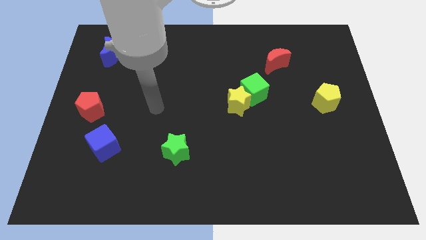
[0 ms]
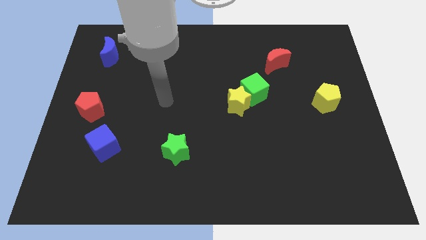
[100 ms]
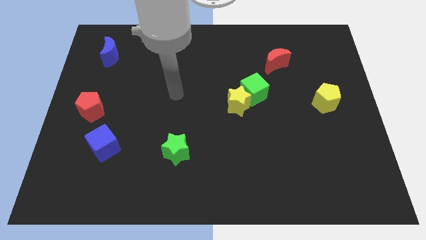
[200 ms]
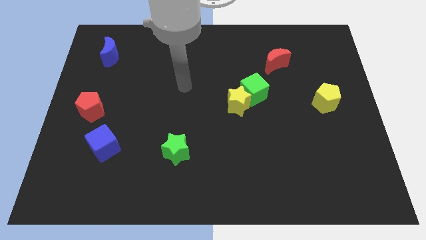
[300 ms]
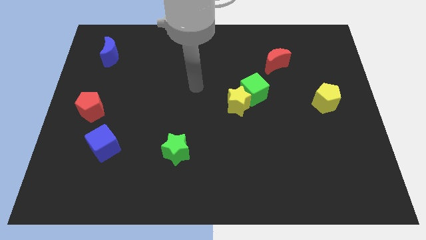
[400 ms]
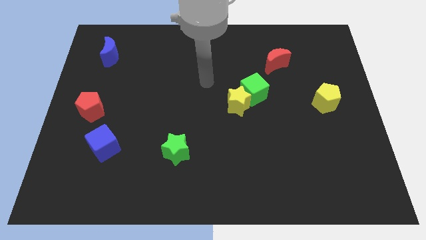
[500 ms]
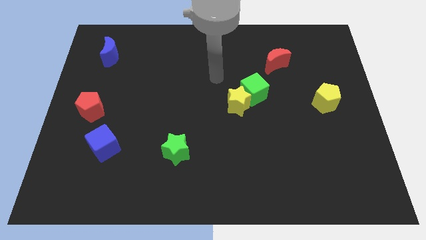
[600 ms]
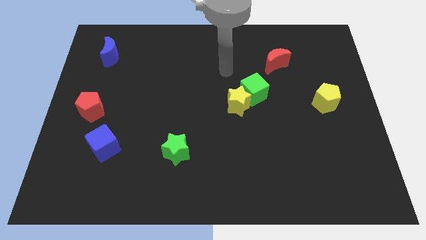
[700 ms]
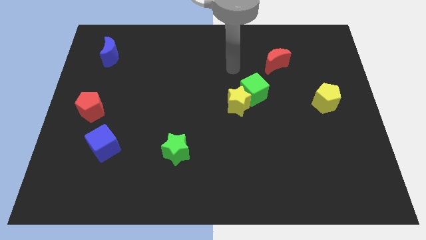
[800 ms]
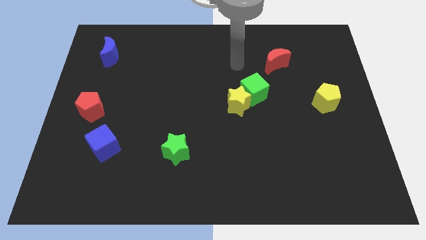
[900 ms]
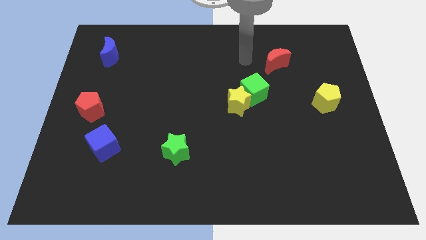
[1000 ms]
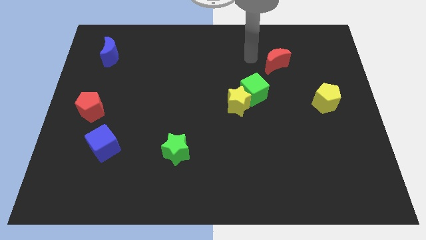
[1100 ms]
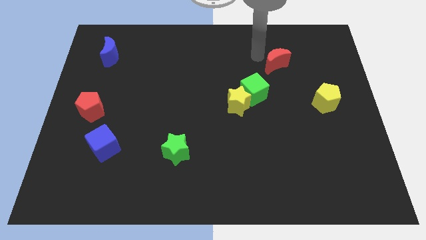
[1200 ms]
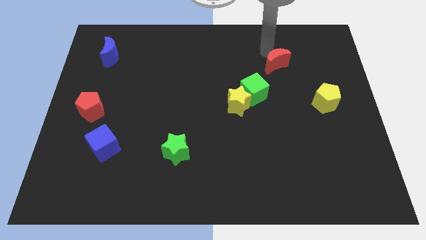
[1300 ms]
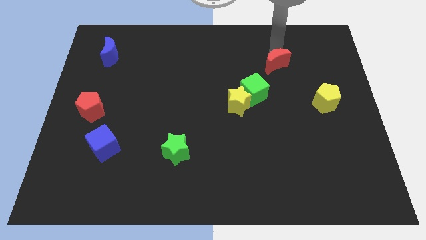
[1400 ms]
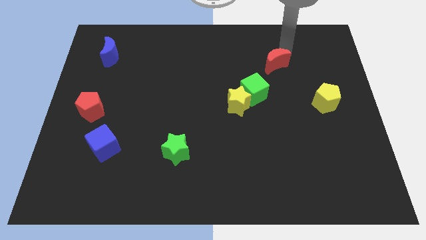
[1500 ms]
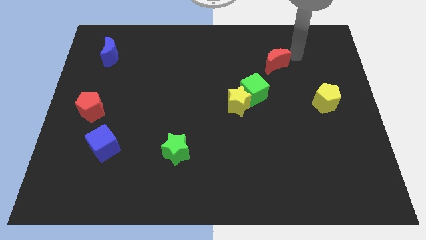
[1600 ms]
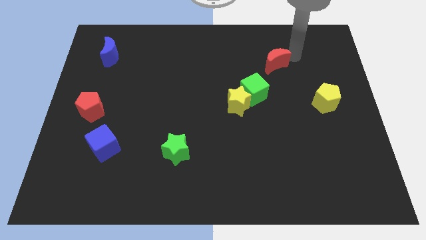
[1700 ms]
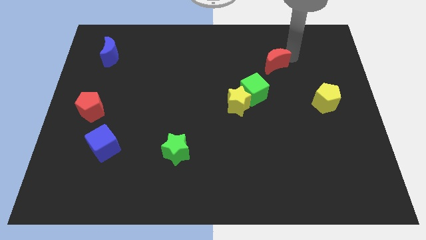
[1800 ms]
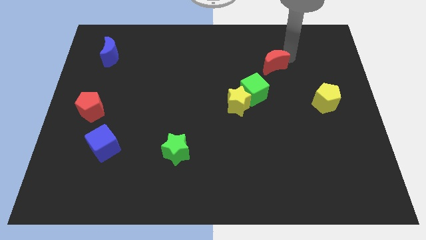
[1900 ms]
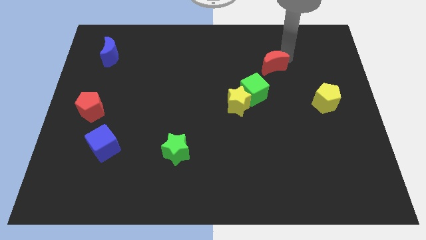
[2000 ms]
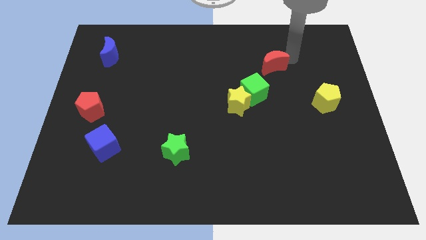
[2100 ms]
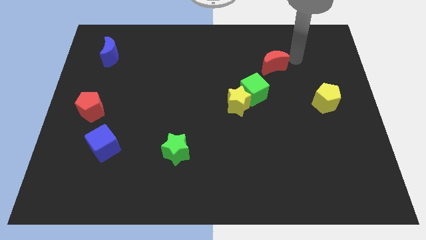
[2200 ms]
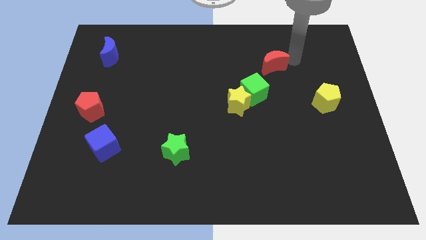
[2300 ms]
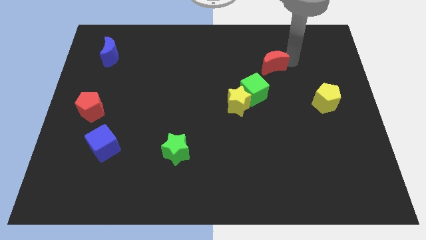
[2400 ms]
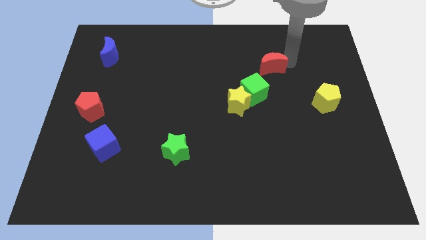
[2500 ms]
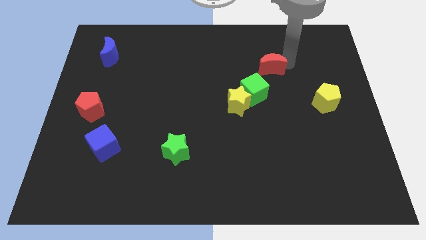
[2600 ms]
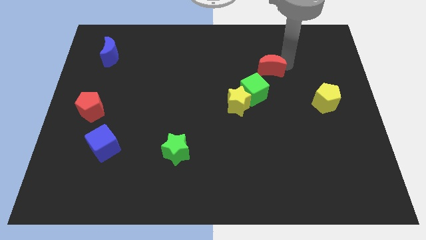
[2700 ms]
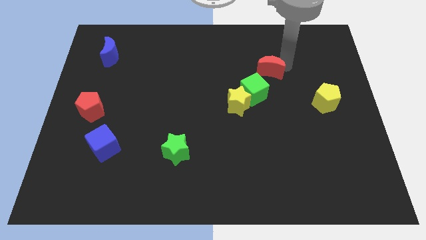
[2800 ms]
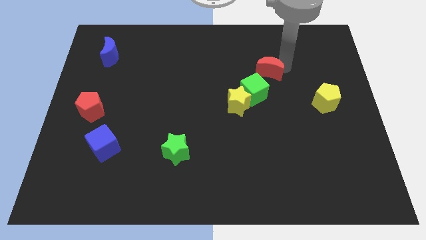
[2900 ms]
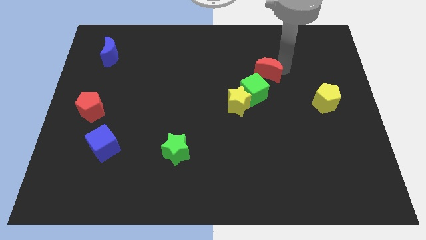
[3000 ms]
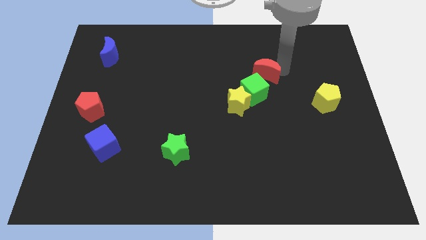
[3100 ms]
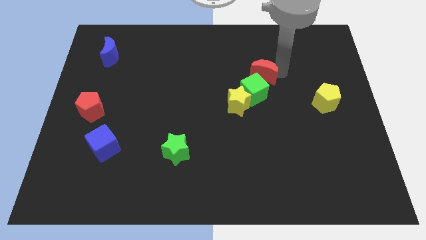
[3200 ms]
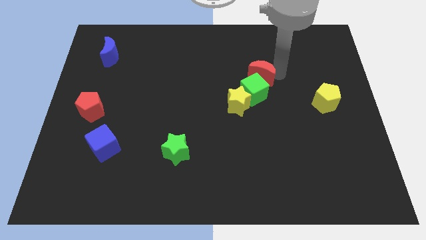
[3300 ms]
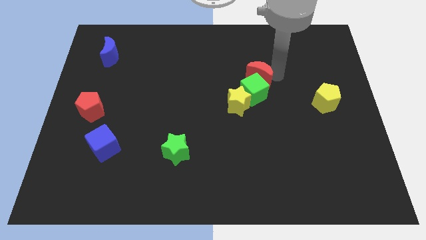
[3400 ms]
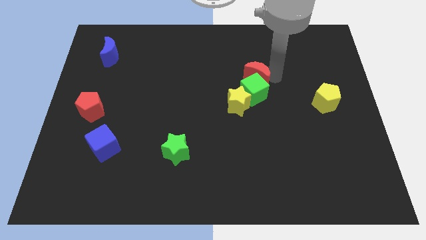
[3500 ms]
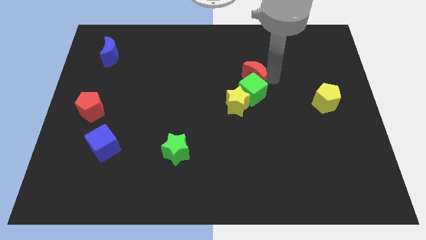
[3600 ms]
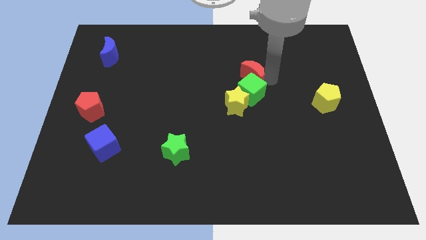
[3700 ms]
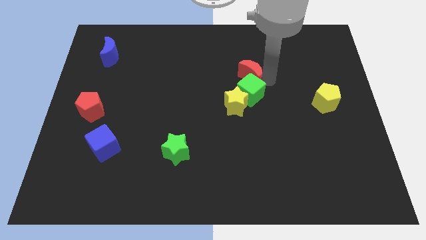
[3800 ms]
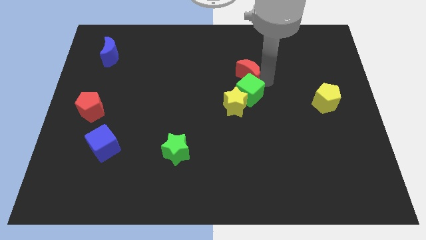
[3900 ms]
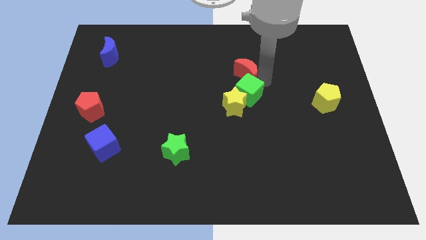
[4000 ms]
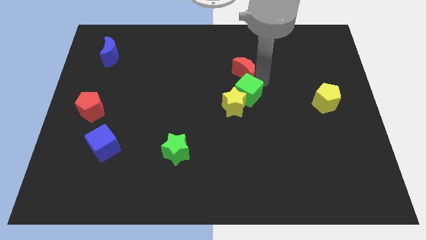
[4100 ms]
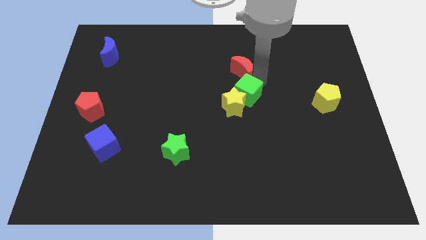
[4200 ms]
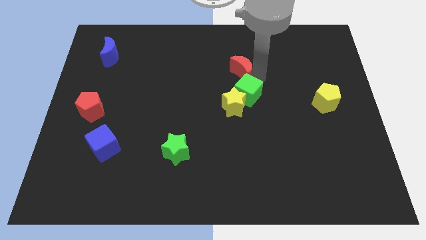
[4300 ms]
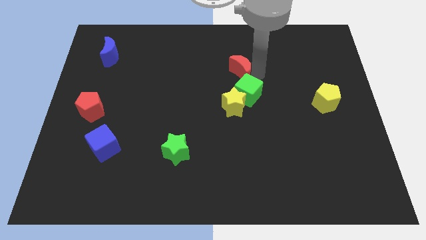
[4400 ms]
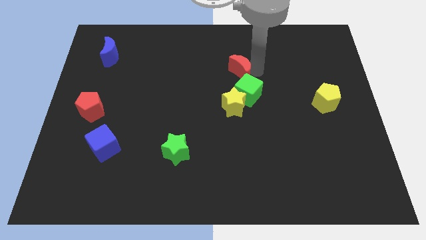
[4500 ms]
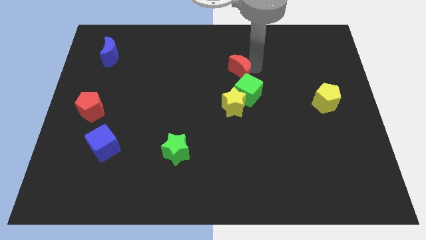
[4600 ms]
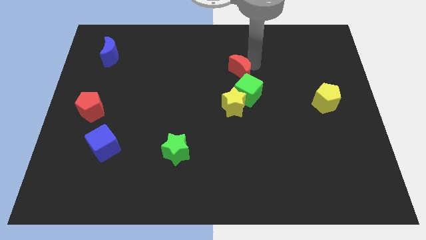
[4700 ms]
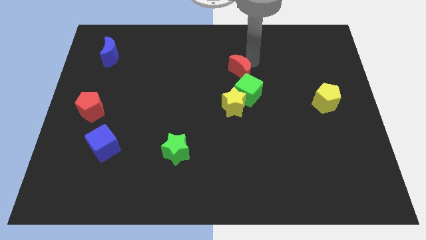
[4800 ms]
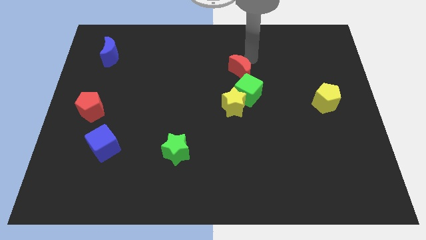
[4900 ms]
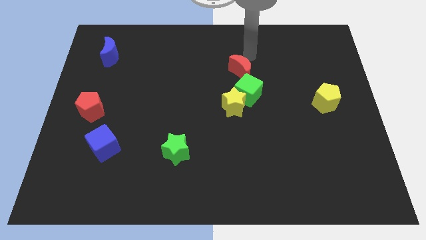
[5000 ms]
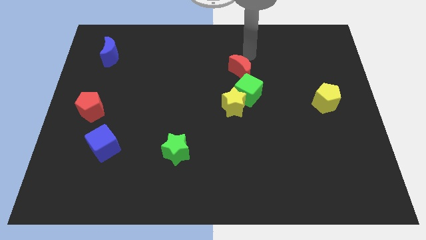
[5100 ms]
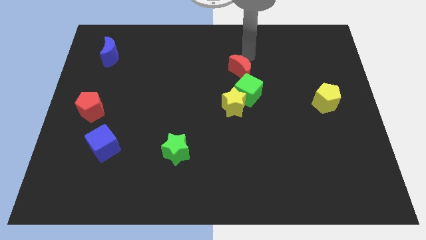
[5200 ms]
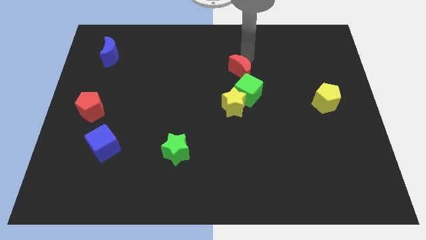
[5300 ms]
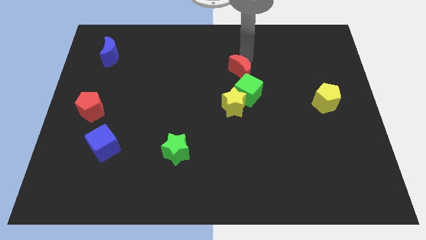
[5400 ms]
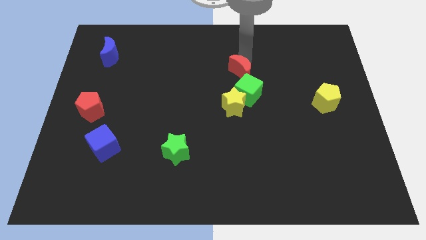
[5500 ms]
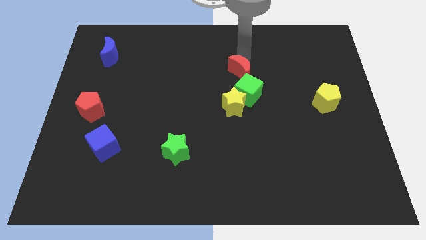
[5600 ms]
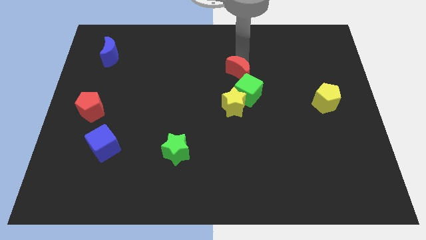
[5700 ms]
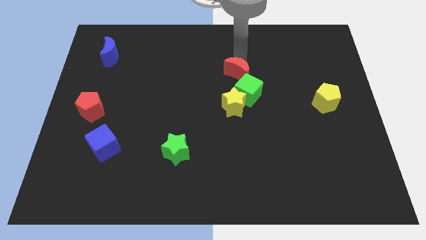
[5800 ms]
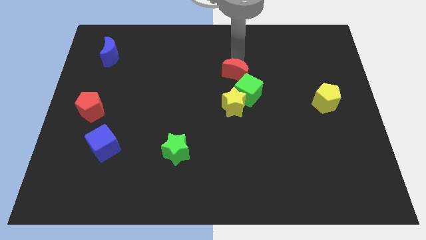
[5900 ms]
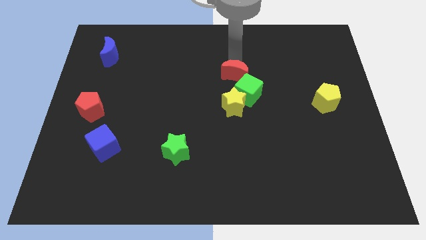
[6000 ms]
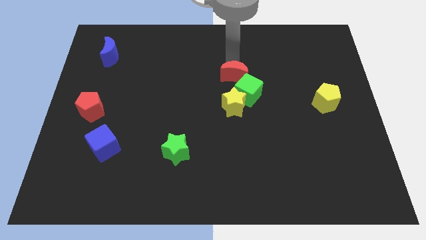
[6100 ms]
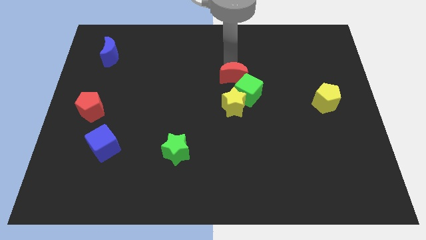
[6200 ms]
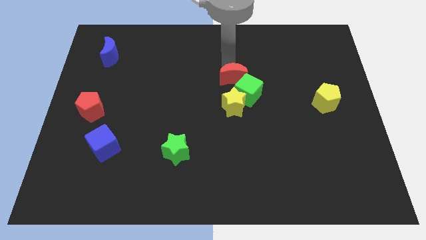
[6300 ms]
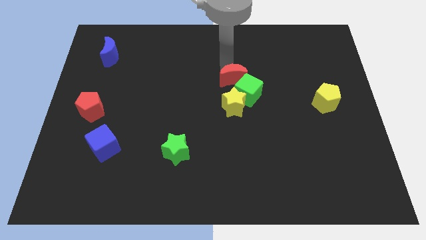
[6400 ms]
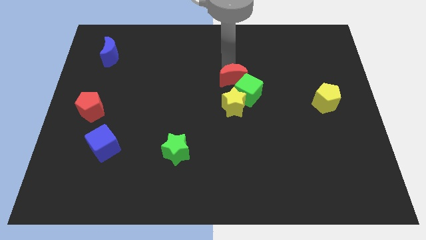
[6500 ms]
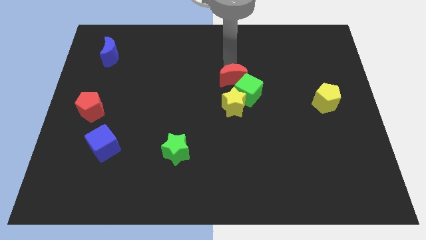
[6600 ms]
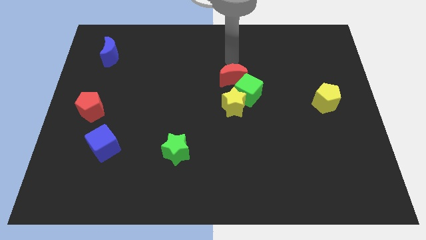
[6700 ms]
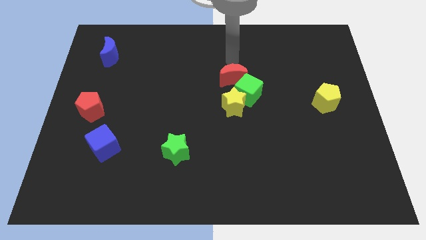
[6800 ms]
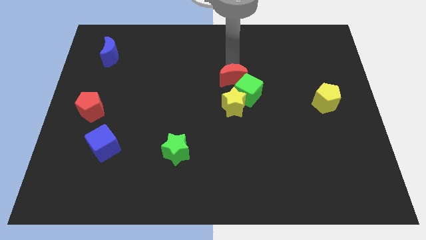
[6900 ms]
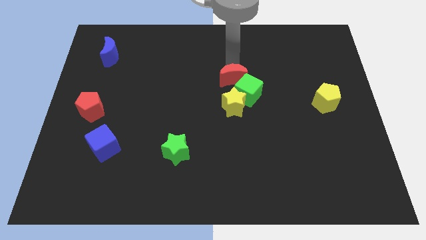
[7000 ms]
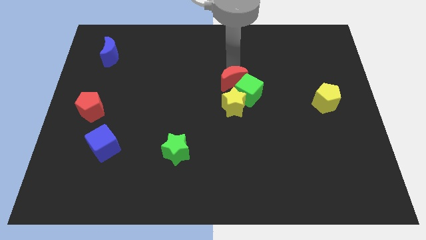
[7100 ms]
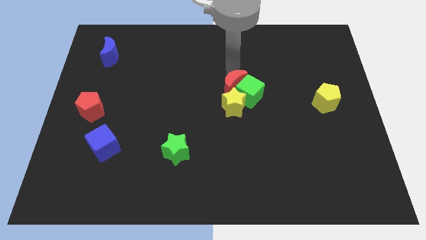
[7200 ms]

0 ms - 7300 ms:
move the red moon towards the yellow star
